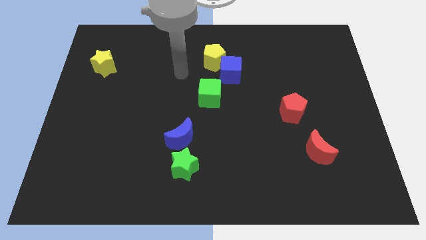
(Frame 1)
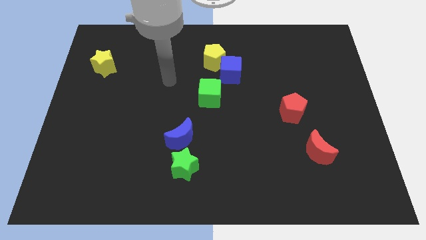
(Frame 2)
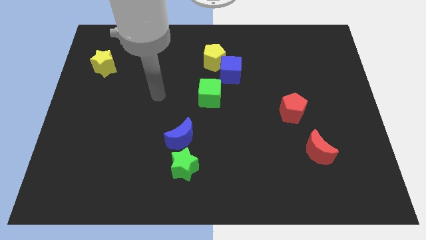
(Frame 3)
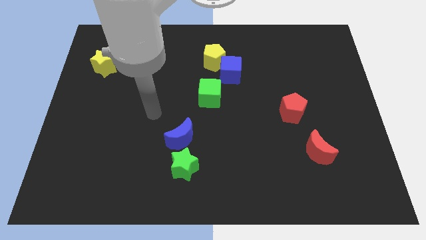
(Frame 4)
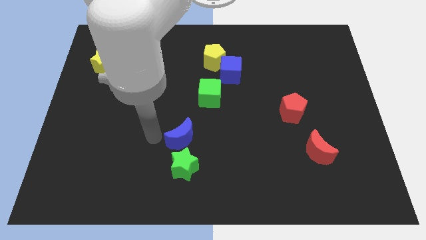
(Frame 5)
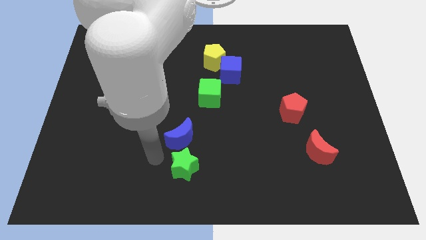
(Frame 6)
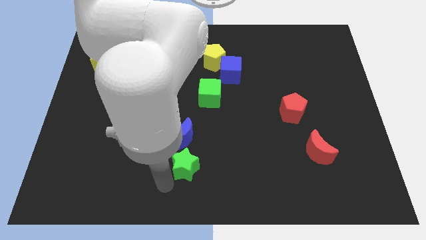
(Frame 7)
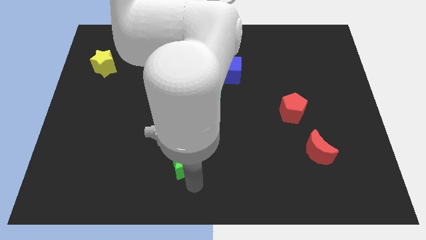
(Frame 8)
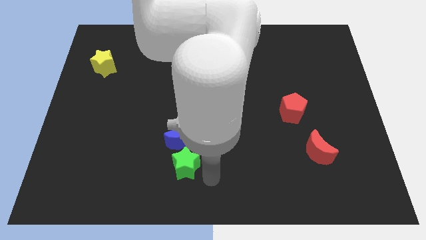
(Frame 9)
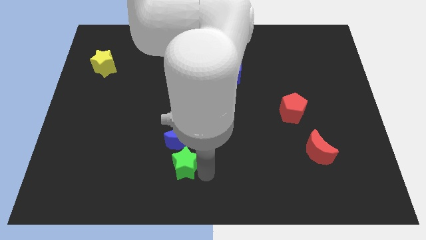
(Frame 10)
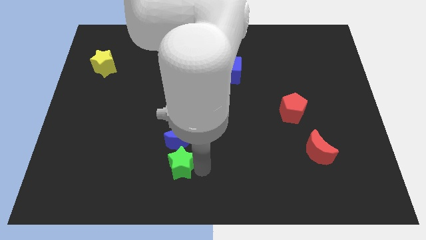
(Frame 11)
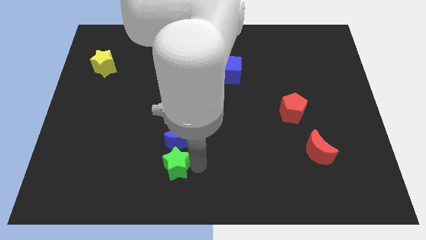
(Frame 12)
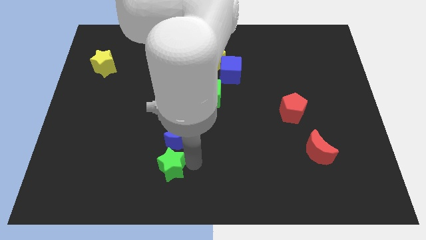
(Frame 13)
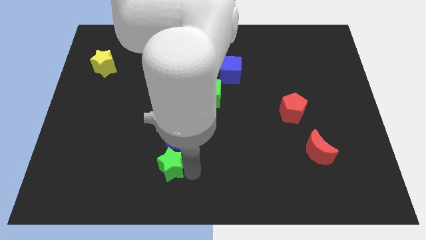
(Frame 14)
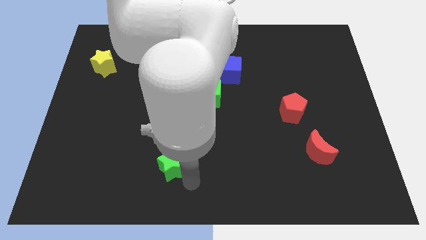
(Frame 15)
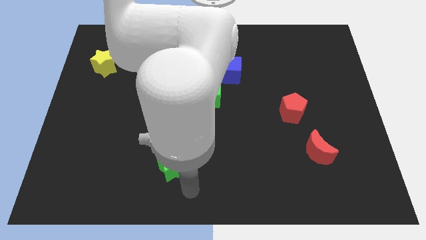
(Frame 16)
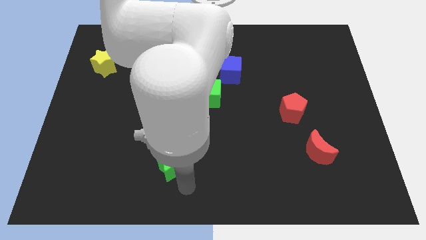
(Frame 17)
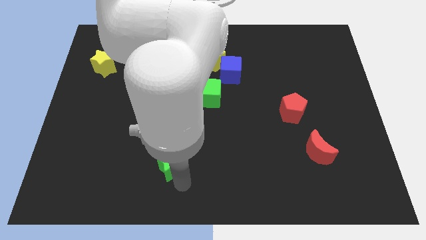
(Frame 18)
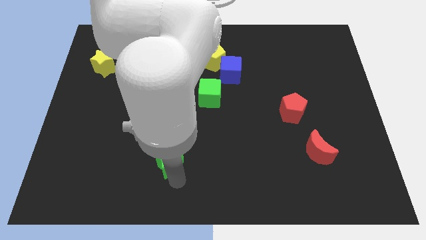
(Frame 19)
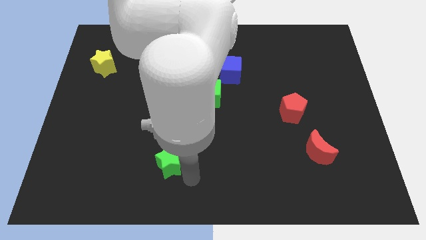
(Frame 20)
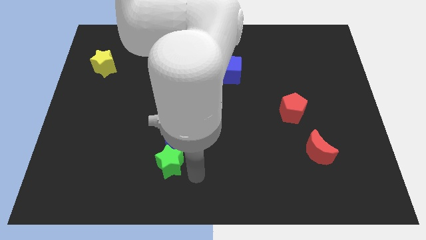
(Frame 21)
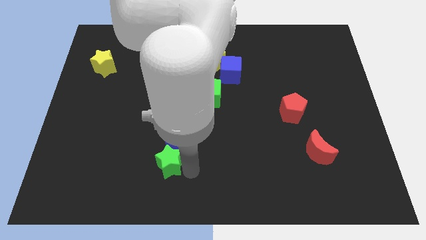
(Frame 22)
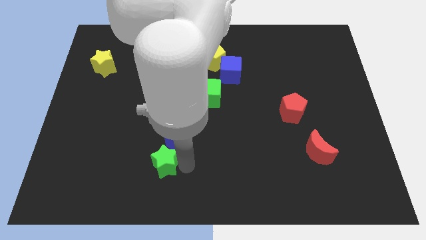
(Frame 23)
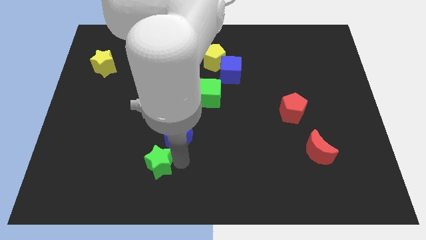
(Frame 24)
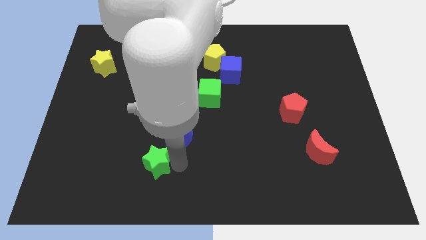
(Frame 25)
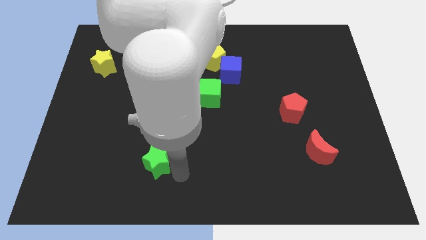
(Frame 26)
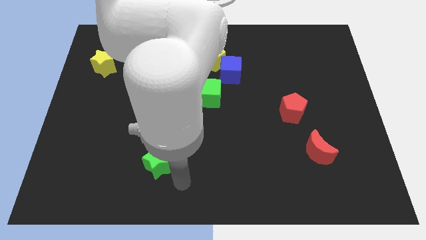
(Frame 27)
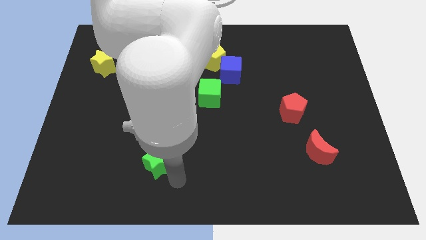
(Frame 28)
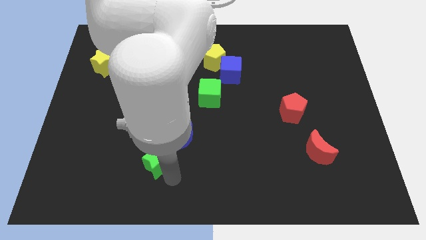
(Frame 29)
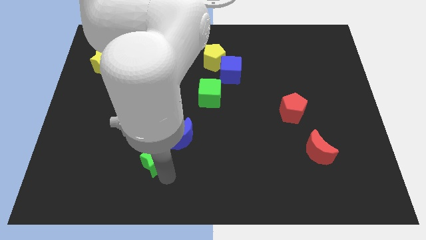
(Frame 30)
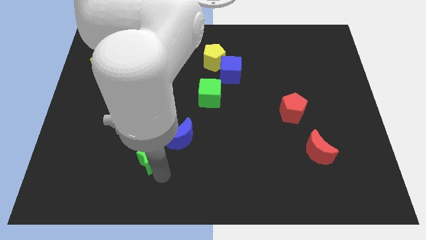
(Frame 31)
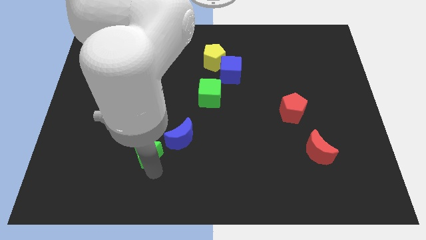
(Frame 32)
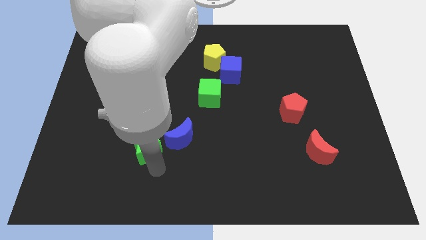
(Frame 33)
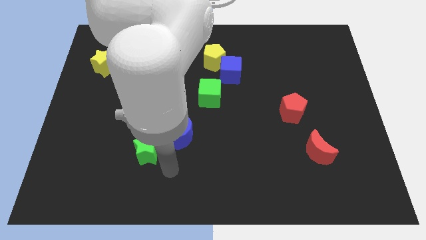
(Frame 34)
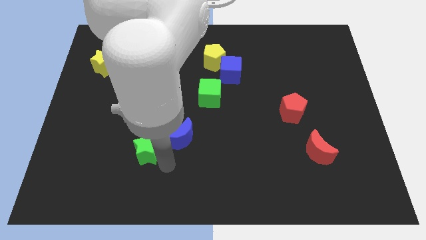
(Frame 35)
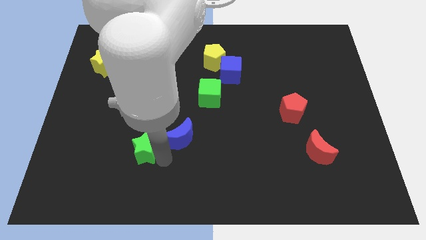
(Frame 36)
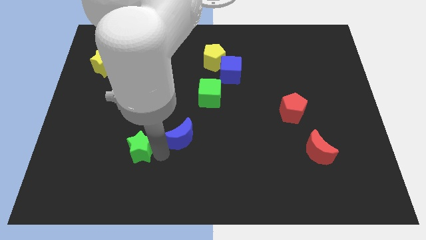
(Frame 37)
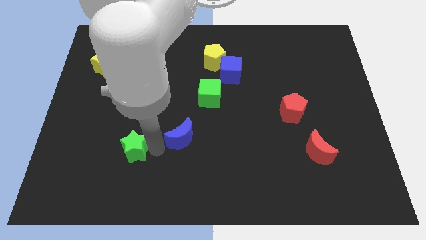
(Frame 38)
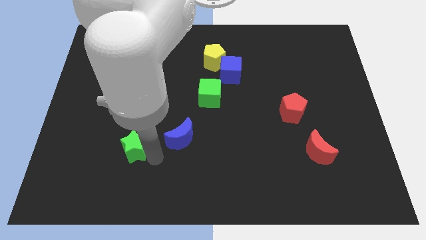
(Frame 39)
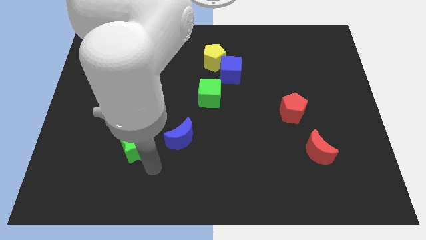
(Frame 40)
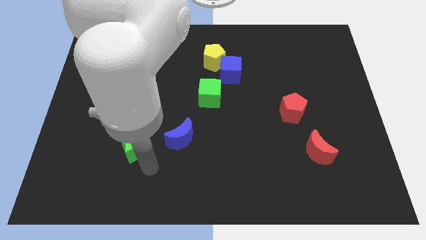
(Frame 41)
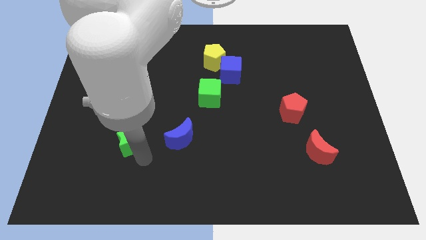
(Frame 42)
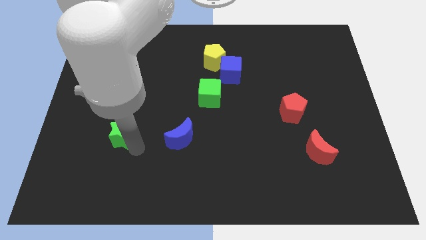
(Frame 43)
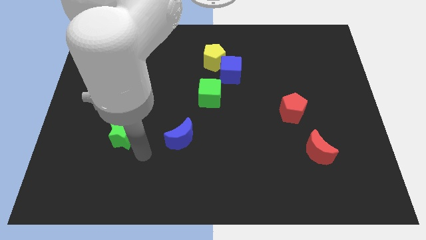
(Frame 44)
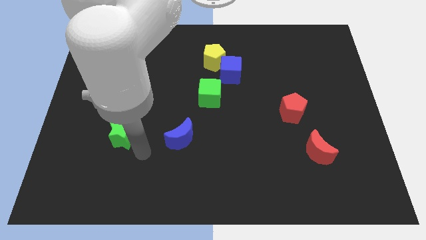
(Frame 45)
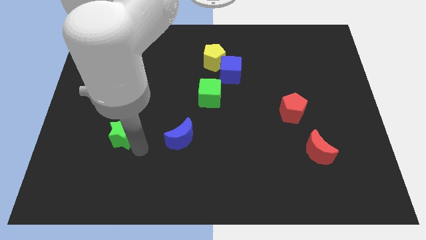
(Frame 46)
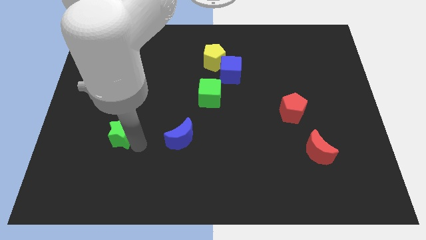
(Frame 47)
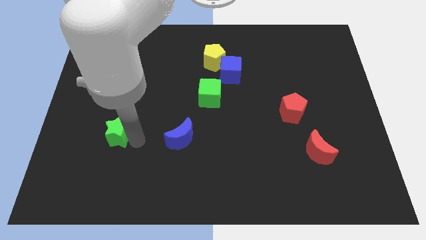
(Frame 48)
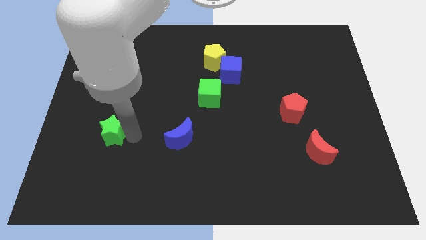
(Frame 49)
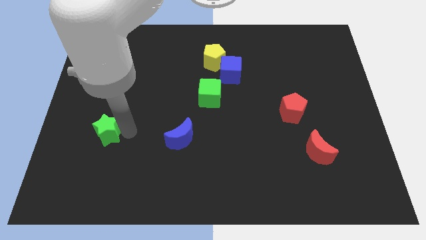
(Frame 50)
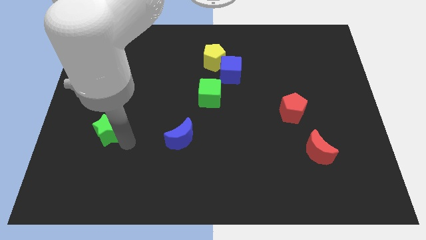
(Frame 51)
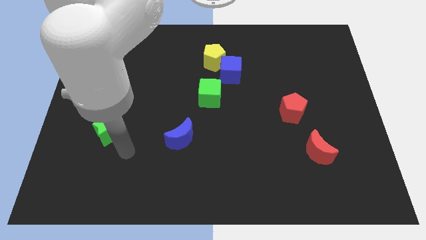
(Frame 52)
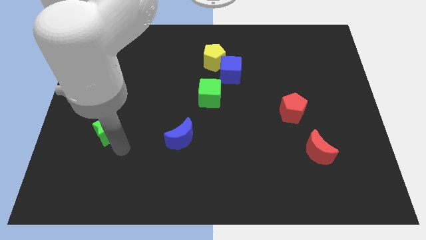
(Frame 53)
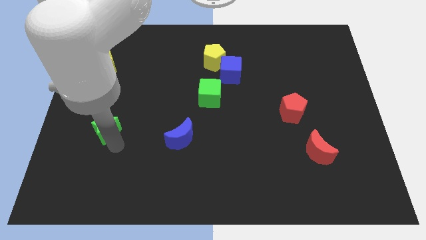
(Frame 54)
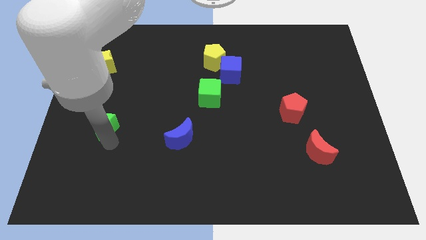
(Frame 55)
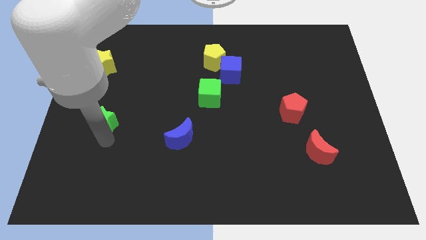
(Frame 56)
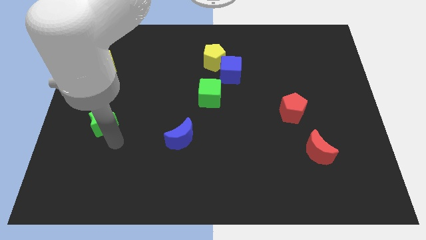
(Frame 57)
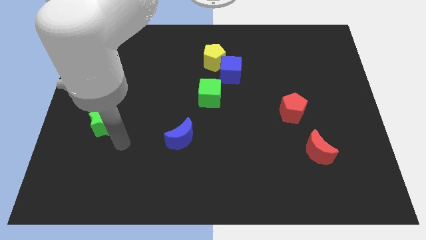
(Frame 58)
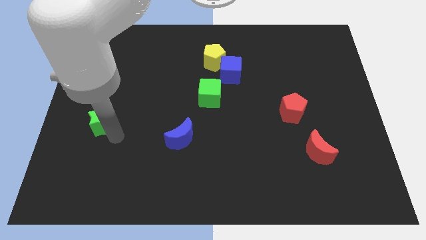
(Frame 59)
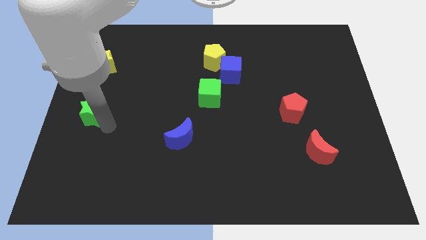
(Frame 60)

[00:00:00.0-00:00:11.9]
move the green star to the left side of the board
